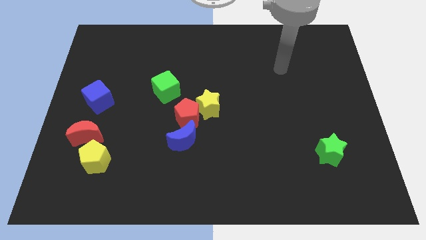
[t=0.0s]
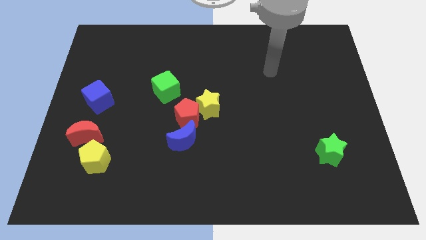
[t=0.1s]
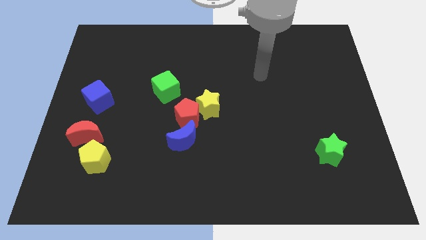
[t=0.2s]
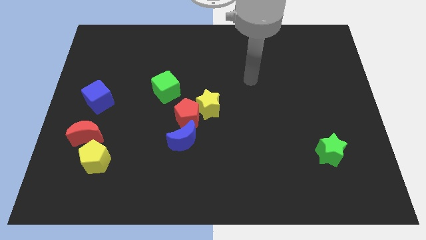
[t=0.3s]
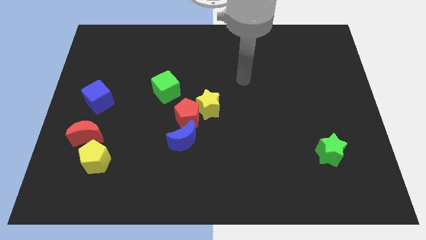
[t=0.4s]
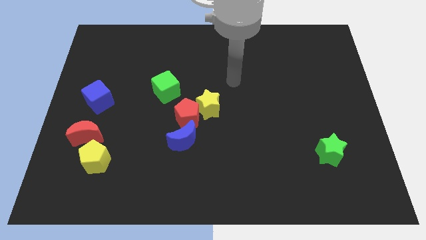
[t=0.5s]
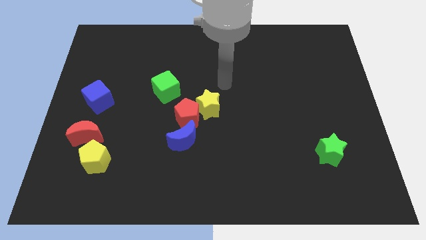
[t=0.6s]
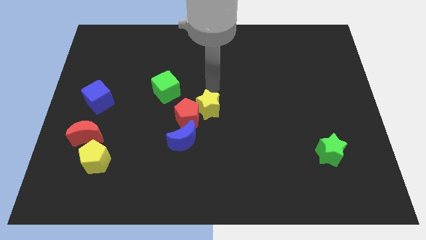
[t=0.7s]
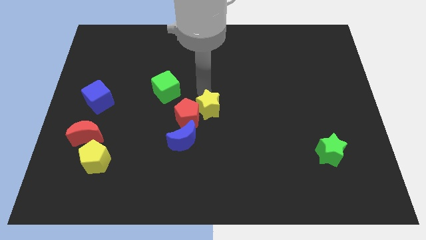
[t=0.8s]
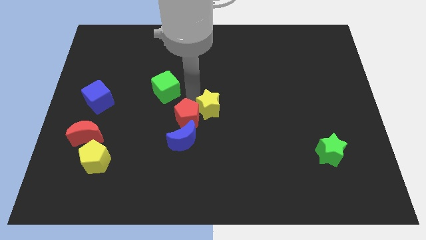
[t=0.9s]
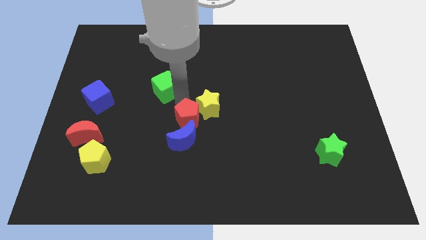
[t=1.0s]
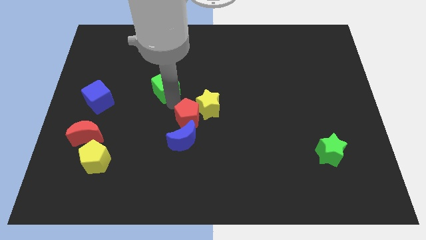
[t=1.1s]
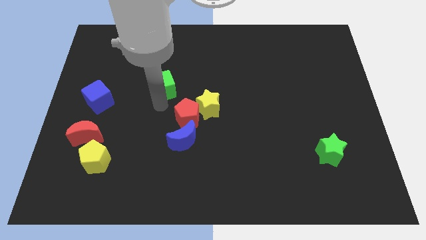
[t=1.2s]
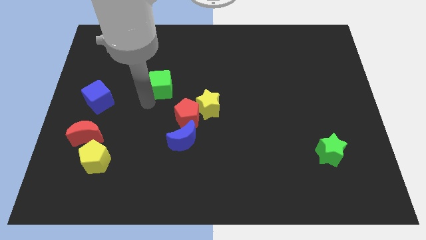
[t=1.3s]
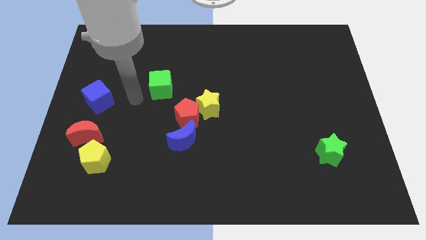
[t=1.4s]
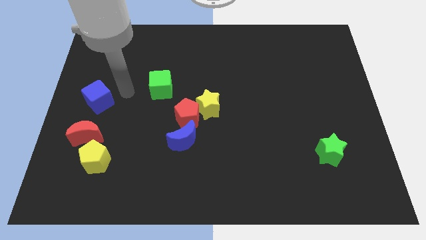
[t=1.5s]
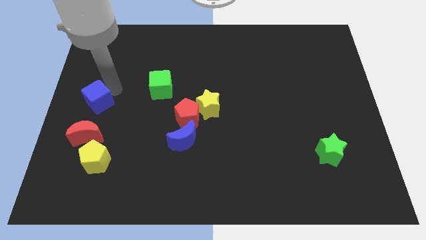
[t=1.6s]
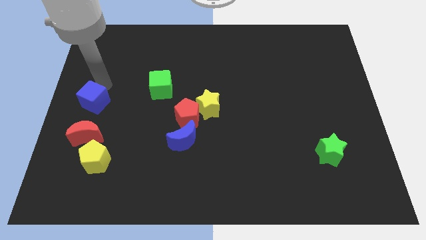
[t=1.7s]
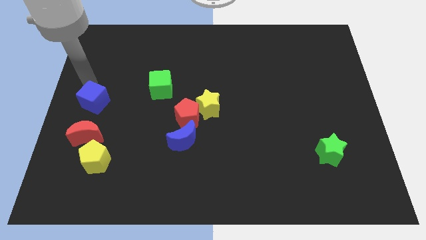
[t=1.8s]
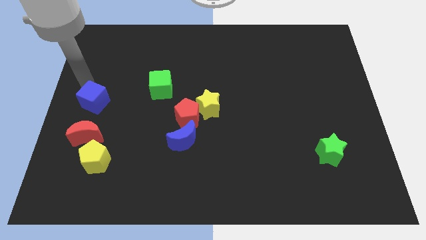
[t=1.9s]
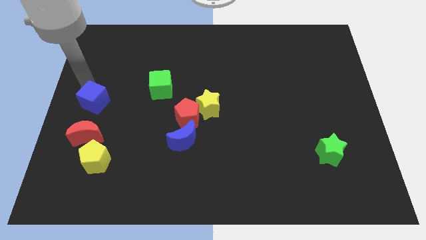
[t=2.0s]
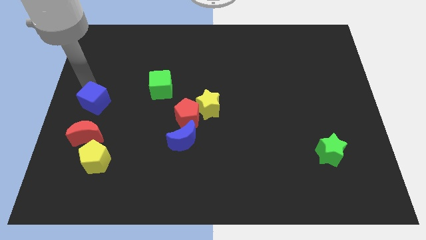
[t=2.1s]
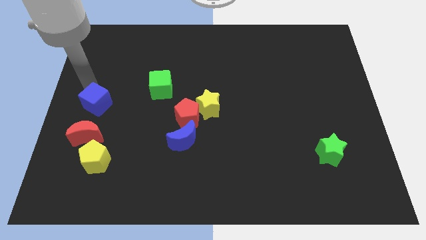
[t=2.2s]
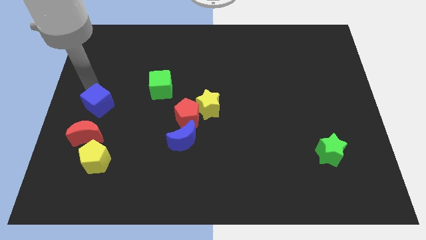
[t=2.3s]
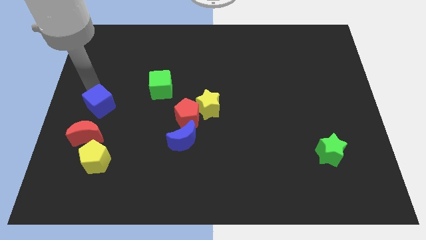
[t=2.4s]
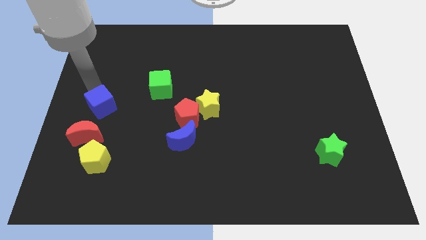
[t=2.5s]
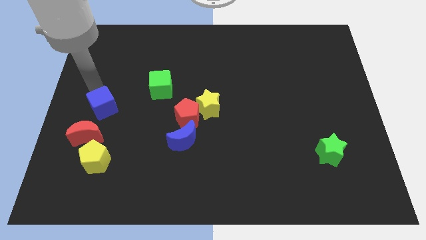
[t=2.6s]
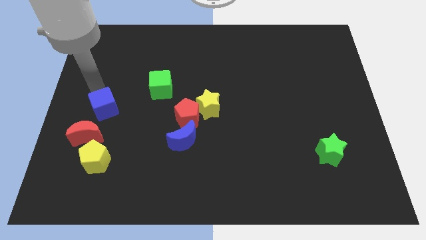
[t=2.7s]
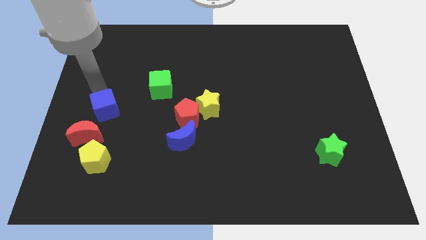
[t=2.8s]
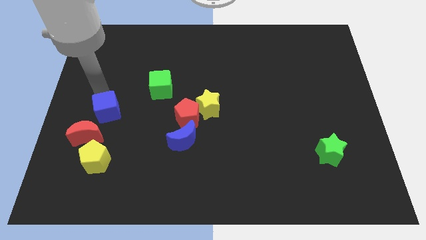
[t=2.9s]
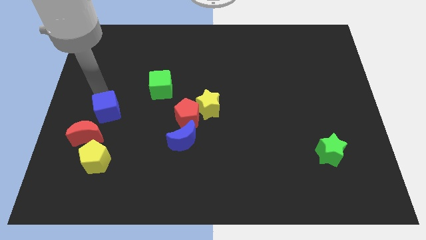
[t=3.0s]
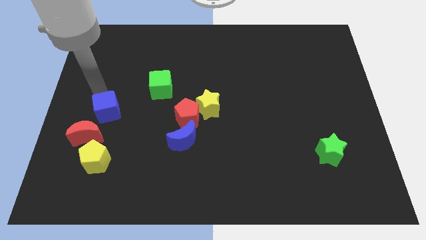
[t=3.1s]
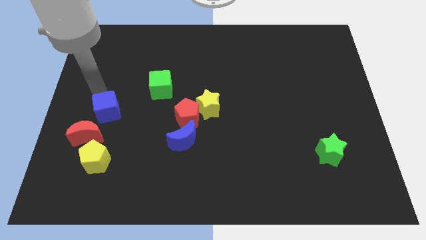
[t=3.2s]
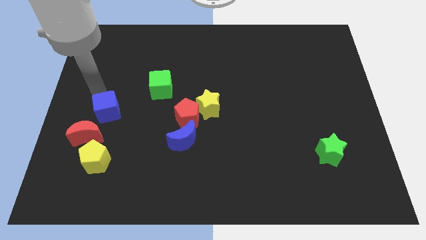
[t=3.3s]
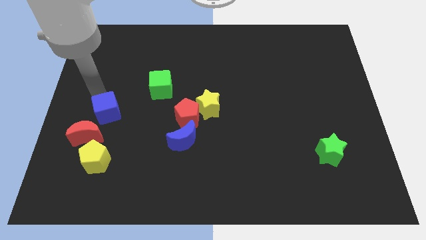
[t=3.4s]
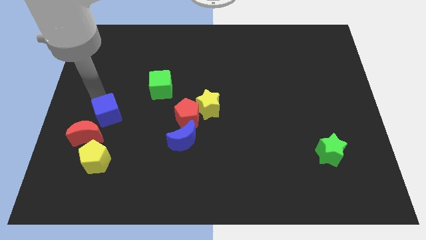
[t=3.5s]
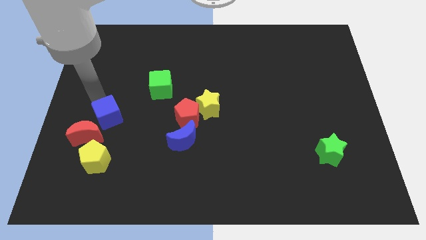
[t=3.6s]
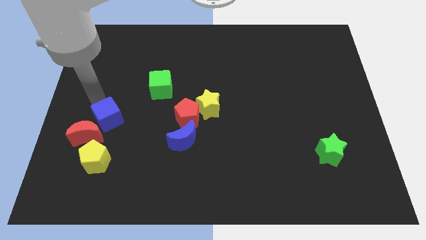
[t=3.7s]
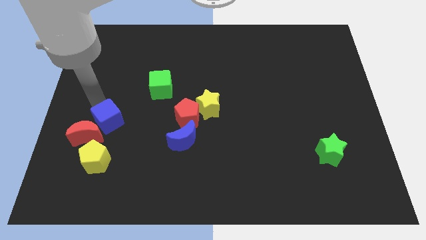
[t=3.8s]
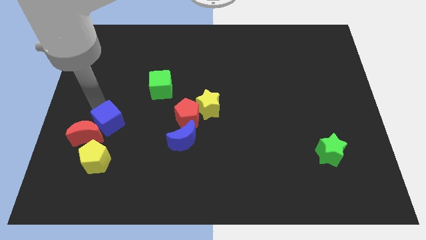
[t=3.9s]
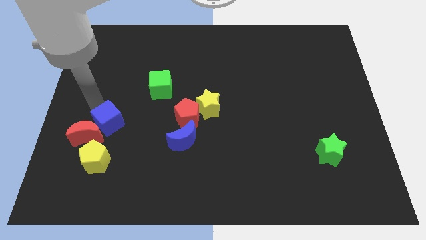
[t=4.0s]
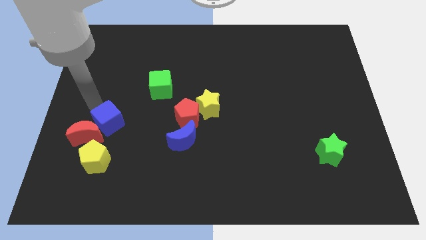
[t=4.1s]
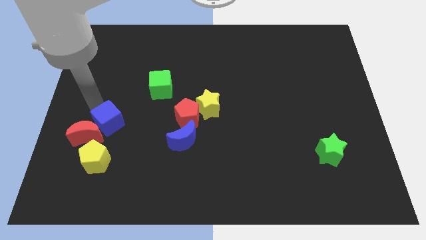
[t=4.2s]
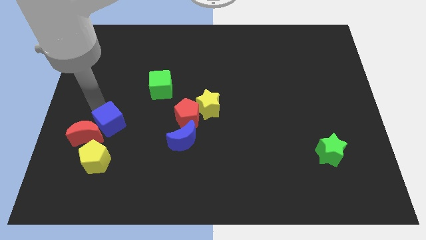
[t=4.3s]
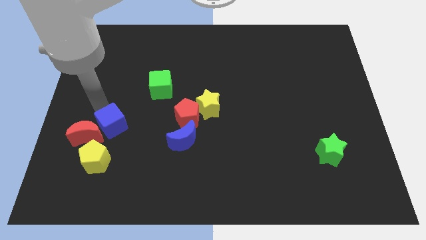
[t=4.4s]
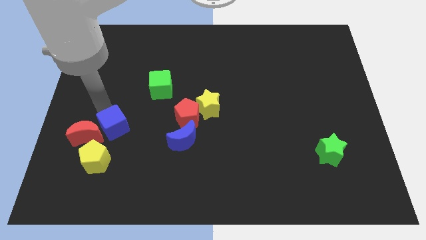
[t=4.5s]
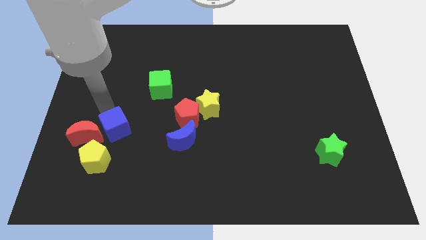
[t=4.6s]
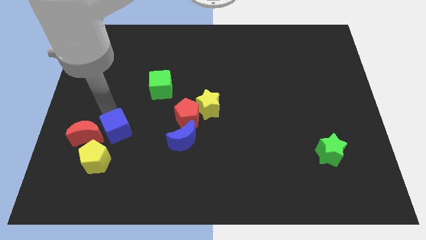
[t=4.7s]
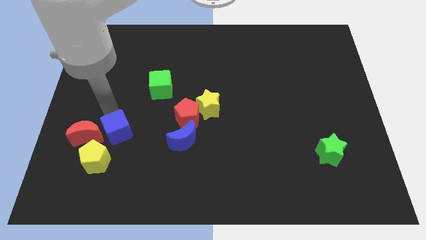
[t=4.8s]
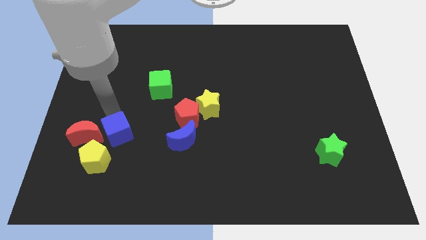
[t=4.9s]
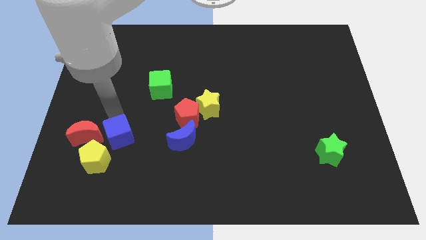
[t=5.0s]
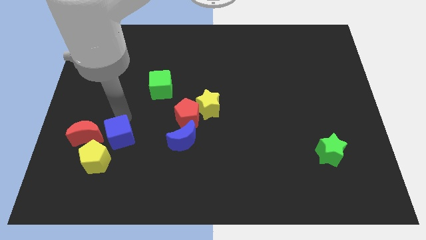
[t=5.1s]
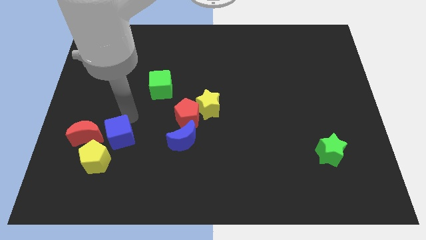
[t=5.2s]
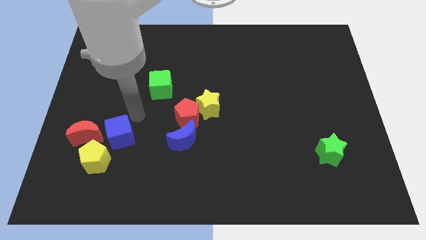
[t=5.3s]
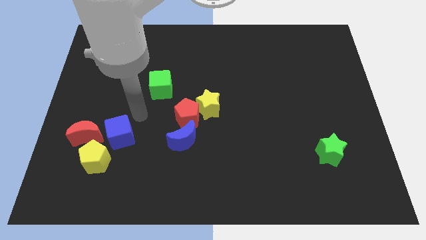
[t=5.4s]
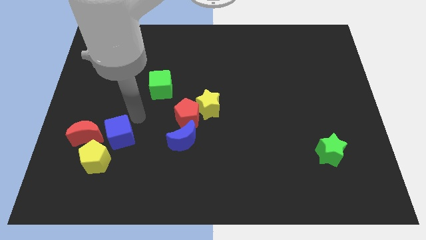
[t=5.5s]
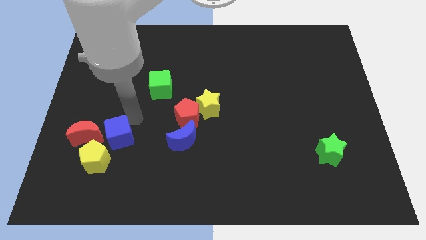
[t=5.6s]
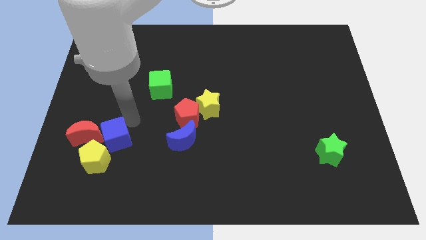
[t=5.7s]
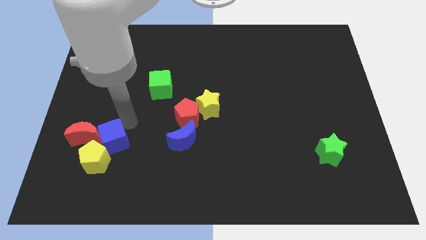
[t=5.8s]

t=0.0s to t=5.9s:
slide the blue cube towards the yellow pentagon

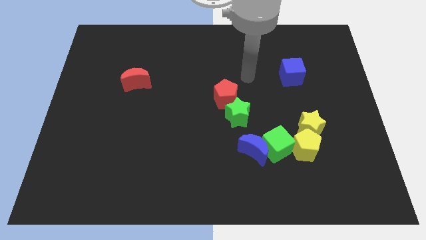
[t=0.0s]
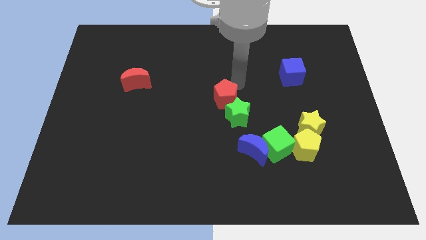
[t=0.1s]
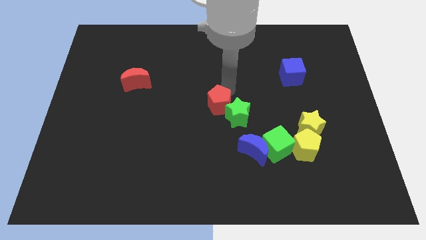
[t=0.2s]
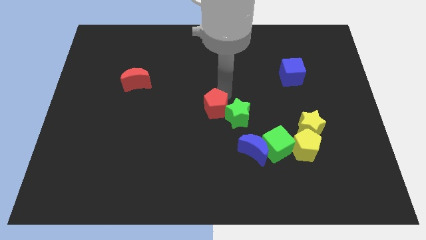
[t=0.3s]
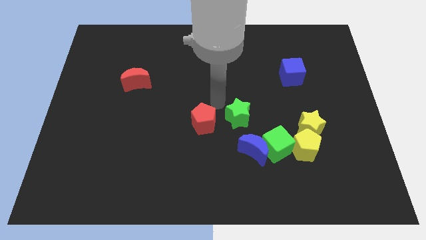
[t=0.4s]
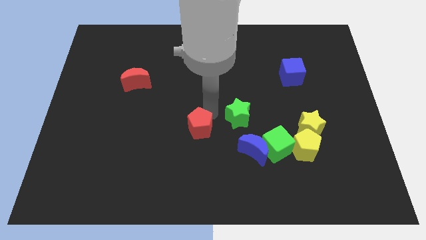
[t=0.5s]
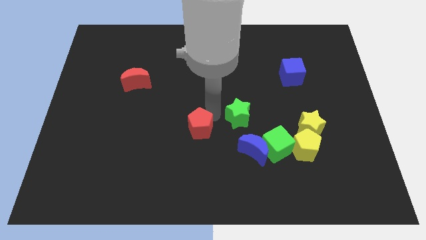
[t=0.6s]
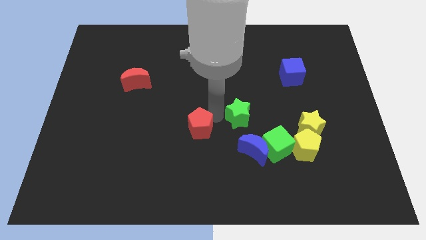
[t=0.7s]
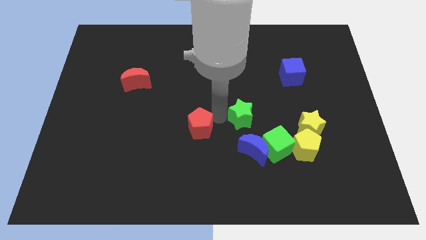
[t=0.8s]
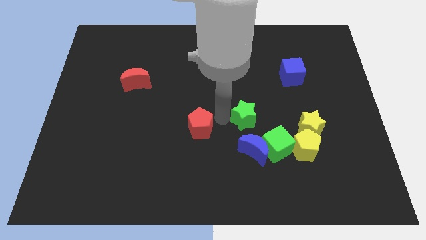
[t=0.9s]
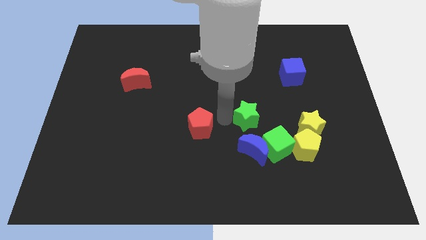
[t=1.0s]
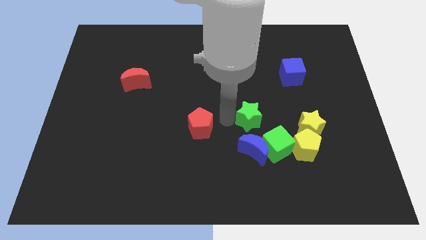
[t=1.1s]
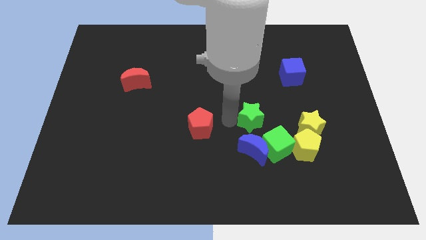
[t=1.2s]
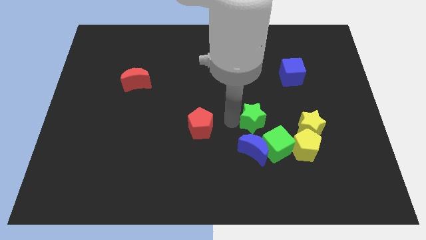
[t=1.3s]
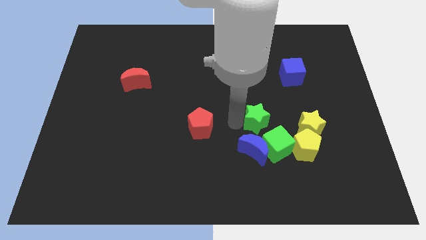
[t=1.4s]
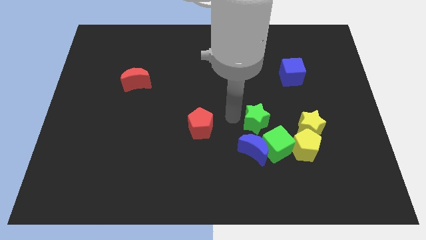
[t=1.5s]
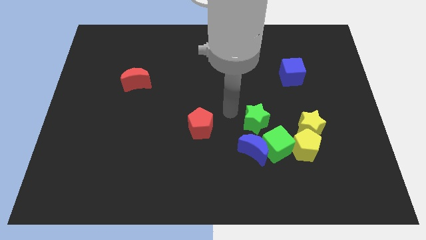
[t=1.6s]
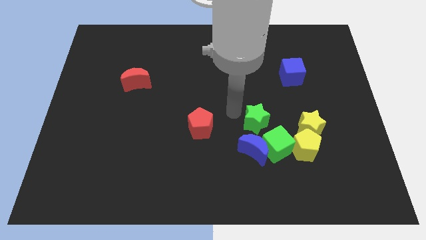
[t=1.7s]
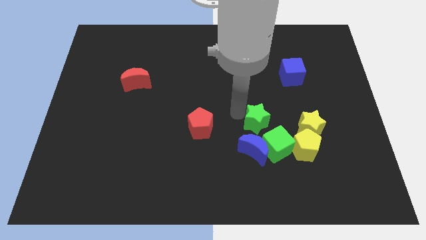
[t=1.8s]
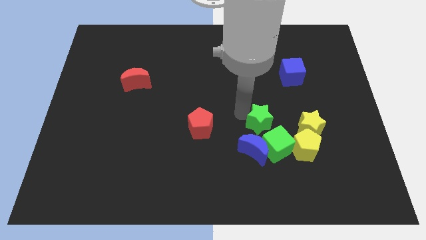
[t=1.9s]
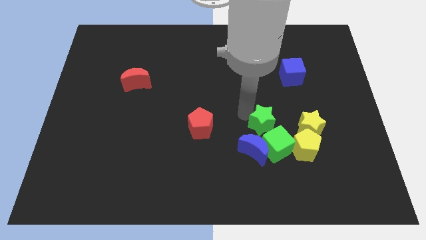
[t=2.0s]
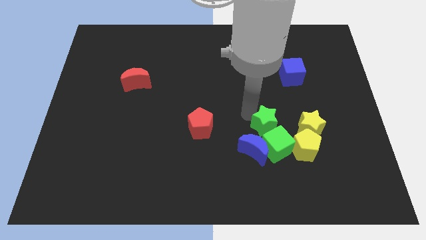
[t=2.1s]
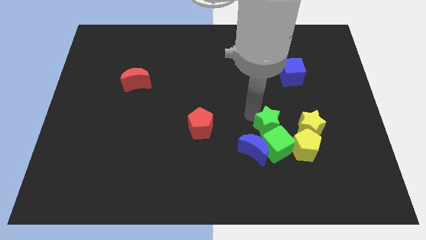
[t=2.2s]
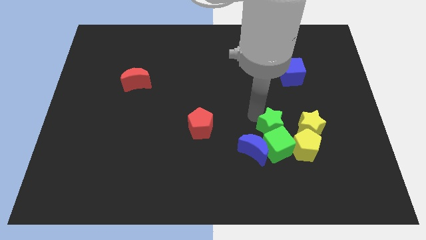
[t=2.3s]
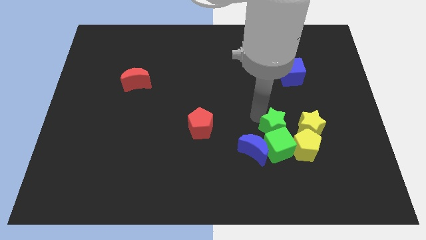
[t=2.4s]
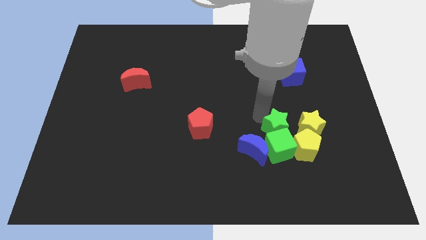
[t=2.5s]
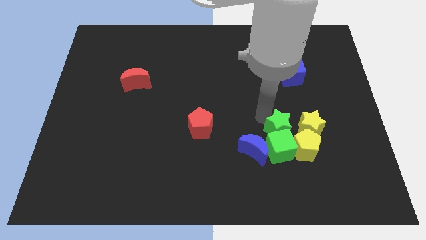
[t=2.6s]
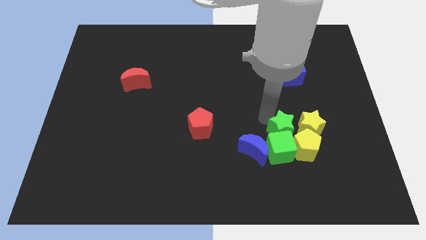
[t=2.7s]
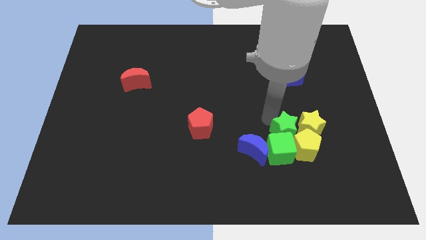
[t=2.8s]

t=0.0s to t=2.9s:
put the green star towards the yellow pentagon
